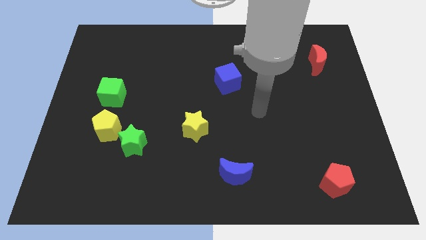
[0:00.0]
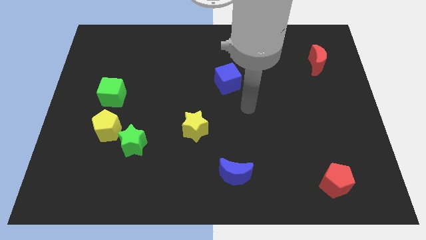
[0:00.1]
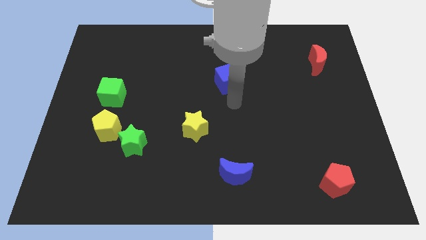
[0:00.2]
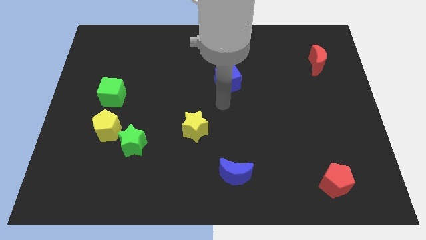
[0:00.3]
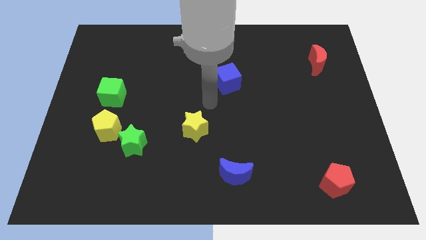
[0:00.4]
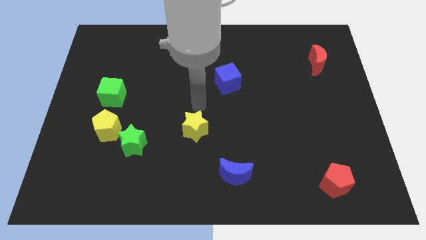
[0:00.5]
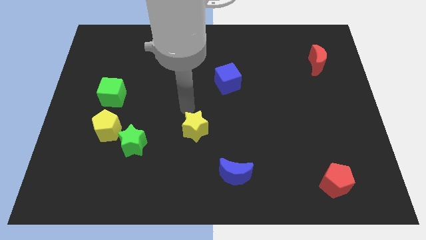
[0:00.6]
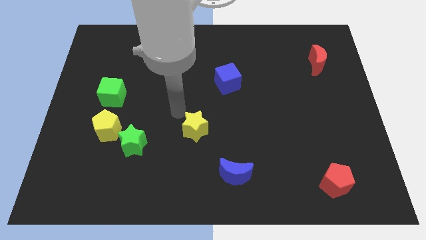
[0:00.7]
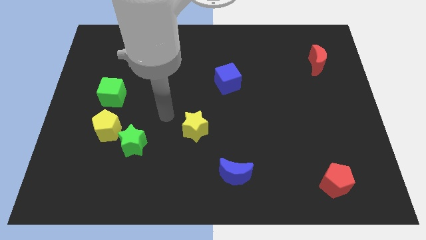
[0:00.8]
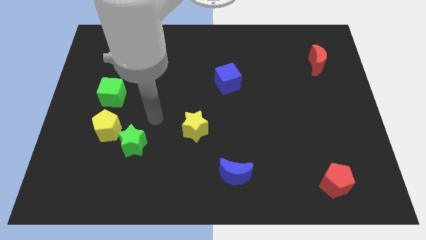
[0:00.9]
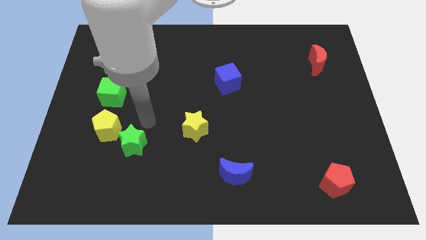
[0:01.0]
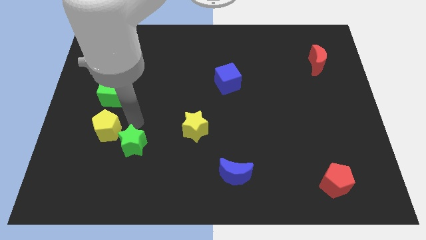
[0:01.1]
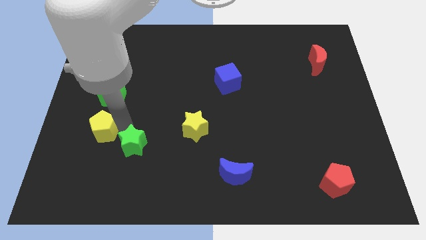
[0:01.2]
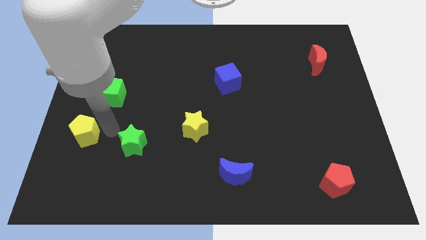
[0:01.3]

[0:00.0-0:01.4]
separate the green star from the yellow pentagon

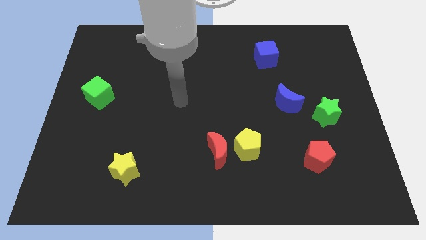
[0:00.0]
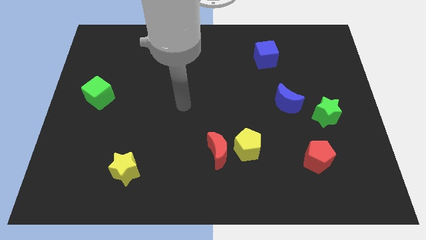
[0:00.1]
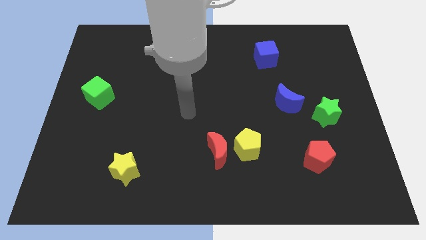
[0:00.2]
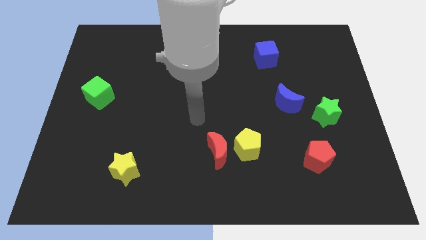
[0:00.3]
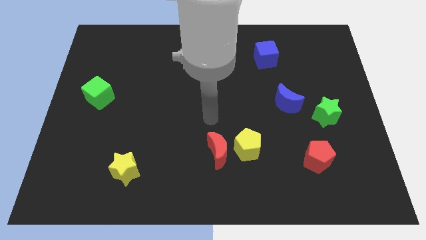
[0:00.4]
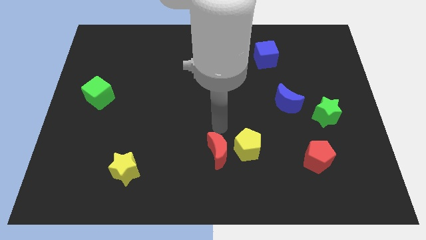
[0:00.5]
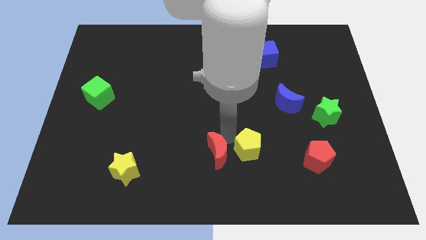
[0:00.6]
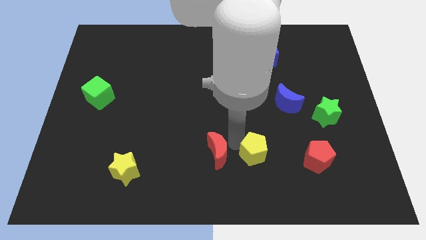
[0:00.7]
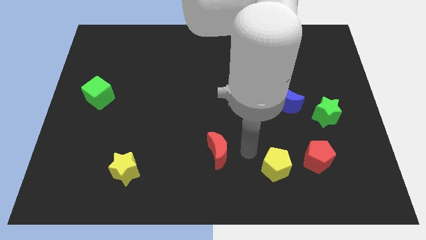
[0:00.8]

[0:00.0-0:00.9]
separate the red moon from the yellow pentagon

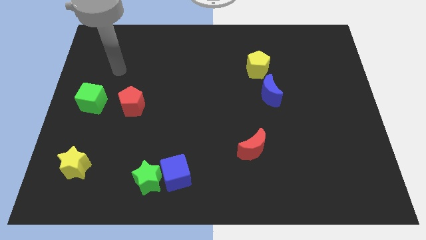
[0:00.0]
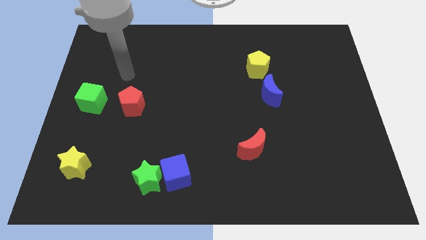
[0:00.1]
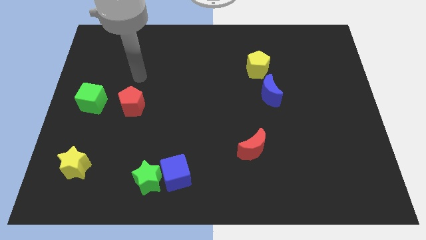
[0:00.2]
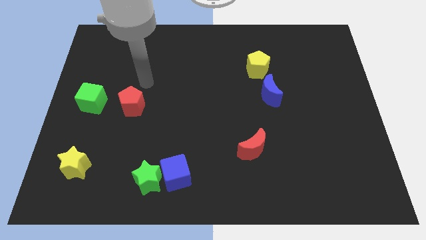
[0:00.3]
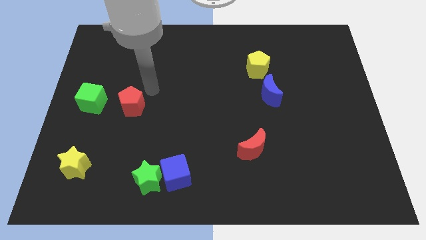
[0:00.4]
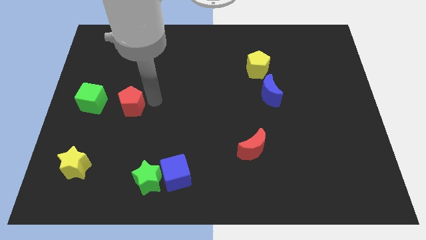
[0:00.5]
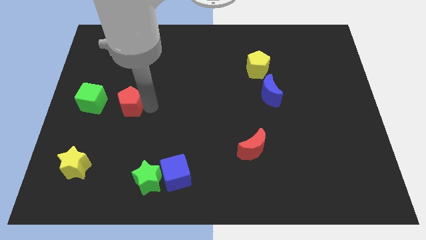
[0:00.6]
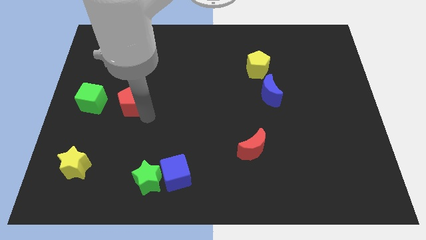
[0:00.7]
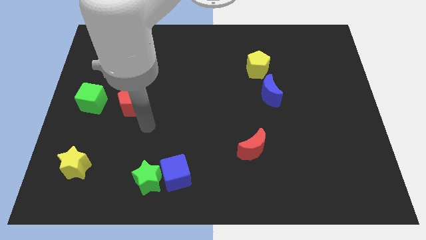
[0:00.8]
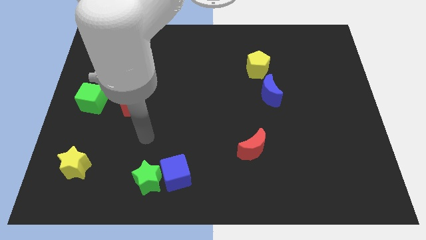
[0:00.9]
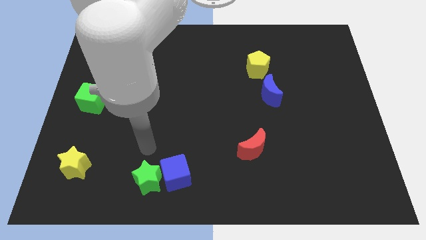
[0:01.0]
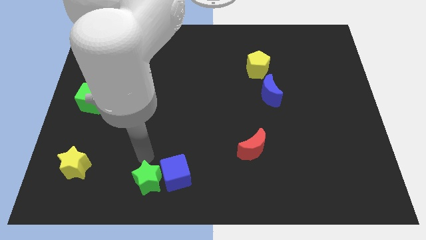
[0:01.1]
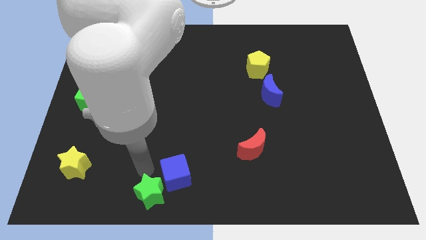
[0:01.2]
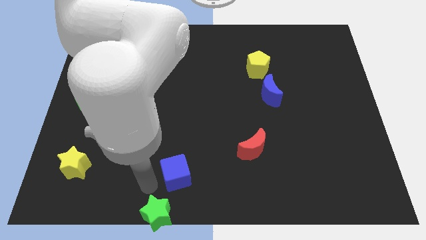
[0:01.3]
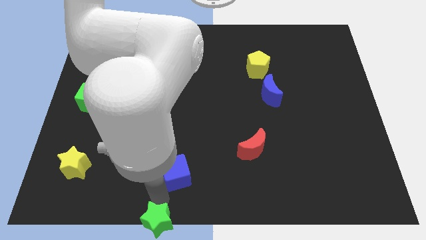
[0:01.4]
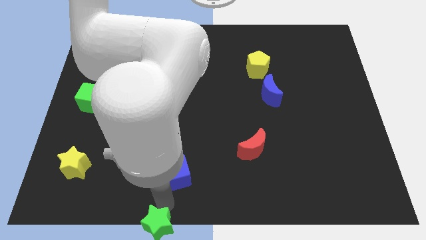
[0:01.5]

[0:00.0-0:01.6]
move the blue cube away from the green star

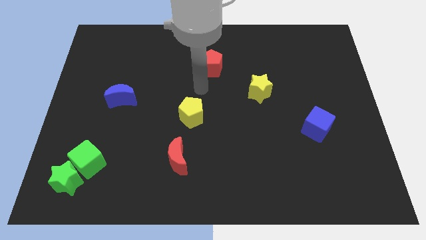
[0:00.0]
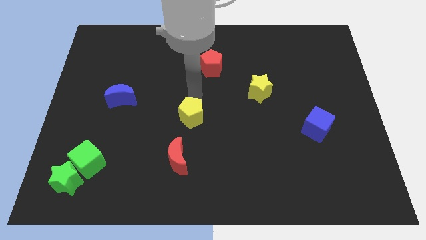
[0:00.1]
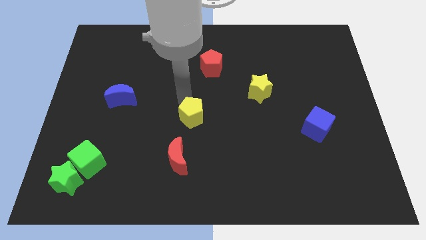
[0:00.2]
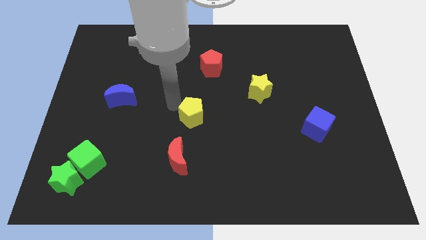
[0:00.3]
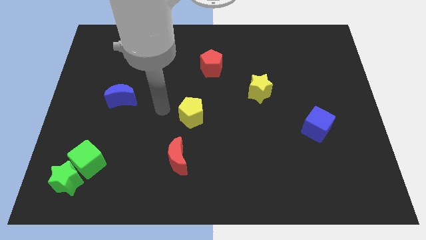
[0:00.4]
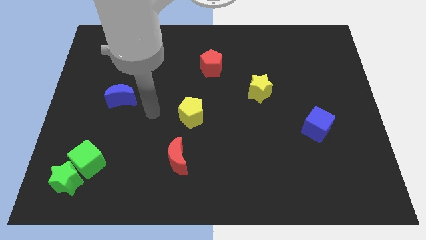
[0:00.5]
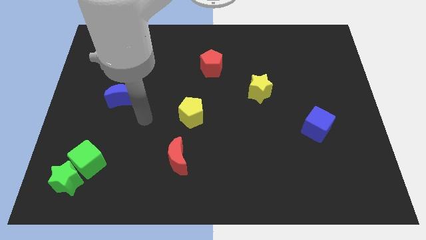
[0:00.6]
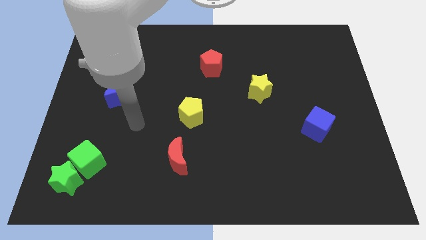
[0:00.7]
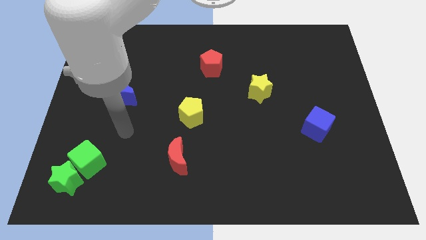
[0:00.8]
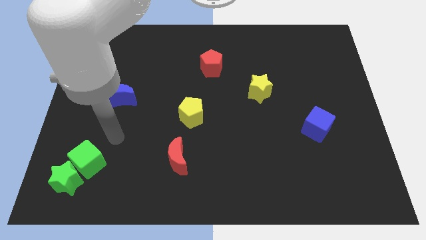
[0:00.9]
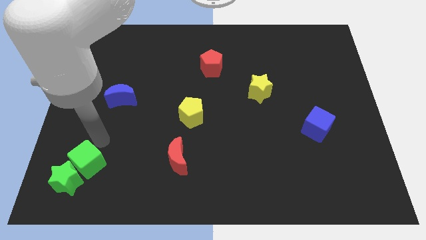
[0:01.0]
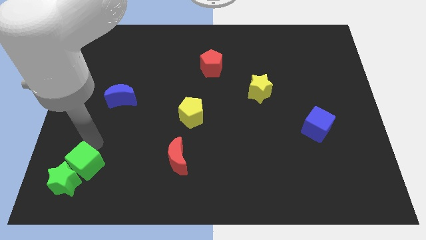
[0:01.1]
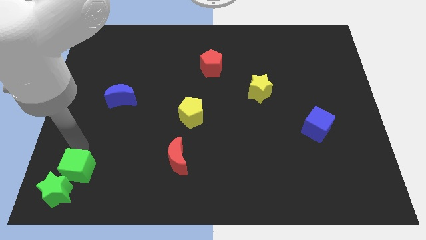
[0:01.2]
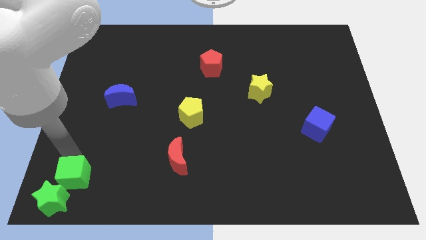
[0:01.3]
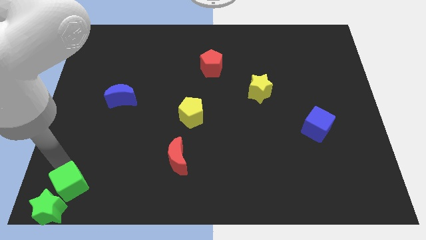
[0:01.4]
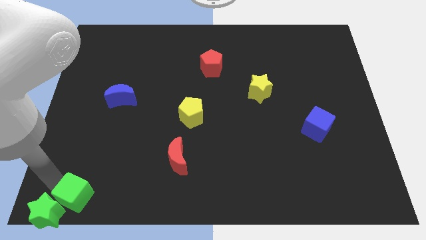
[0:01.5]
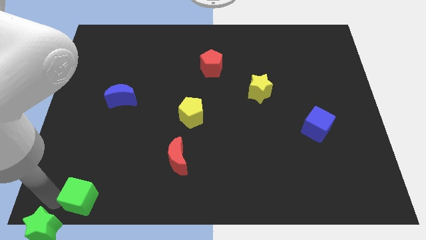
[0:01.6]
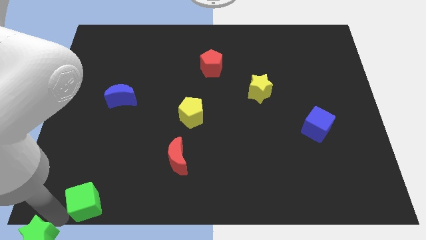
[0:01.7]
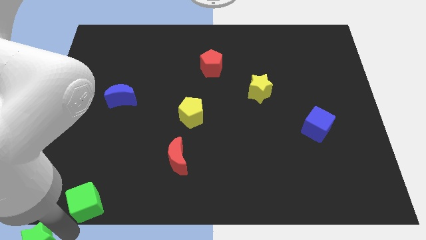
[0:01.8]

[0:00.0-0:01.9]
move the green cube away from the green star

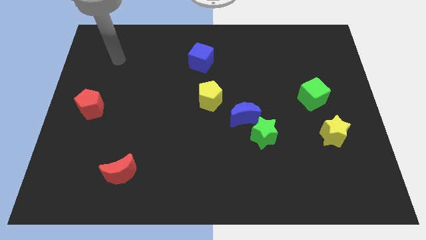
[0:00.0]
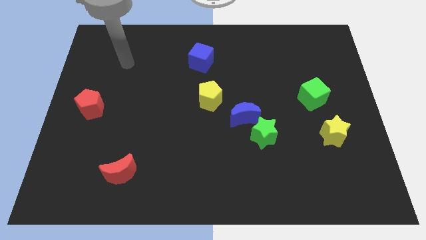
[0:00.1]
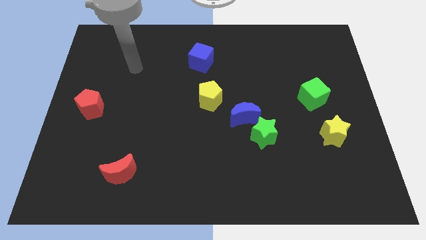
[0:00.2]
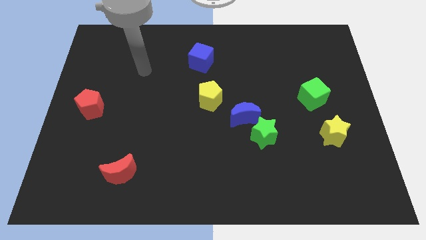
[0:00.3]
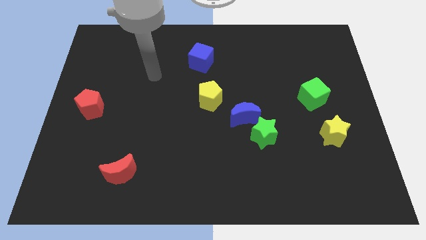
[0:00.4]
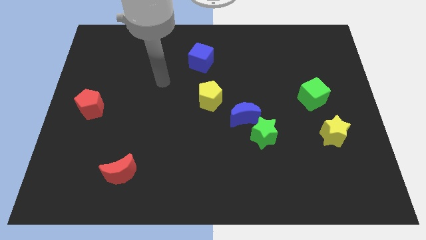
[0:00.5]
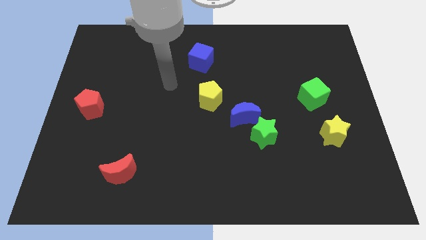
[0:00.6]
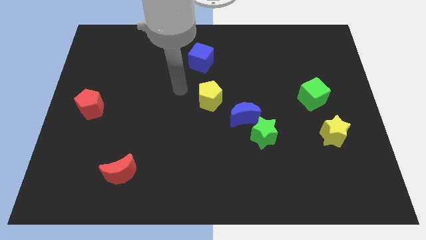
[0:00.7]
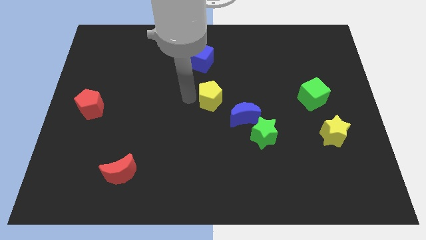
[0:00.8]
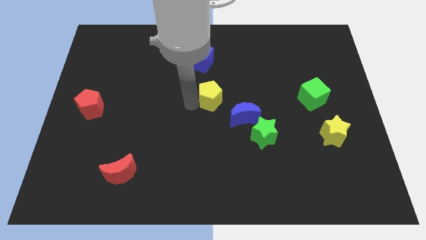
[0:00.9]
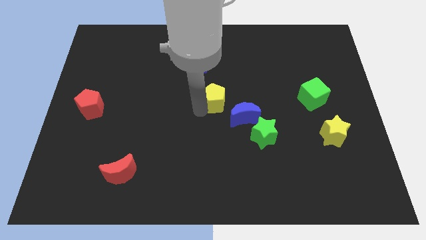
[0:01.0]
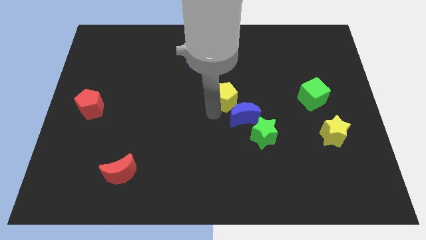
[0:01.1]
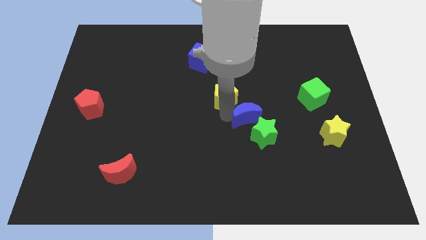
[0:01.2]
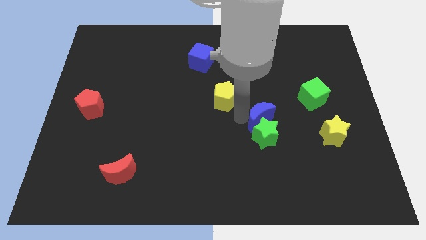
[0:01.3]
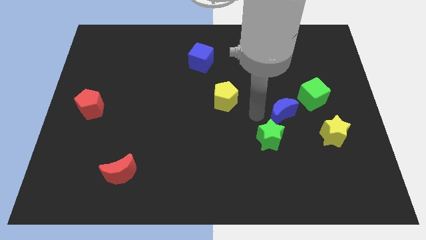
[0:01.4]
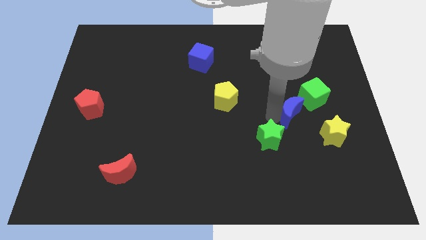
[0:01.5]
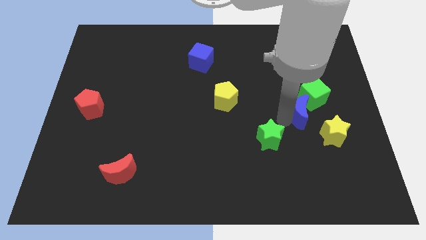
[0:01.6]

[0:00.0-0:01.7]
move the green star away from the blue moon

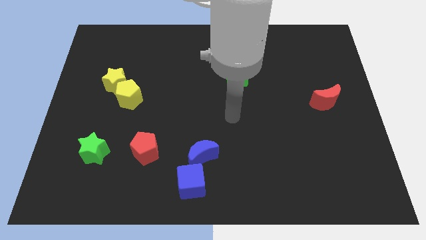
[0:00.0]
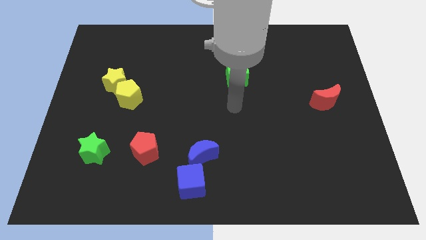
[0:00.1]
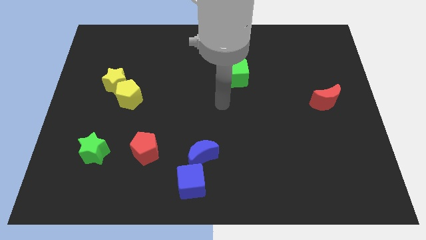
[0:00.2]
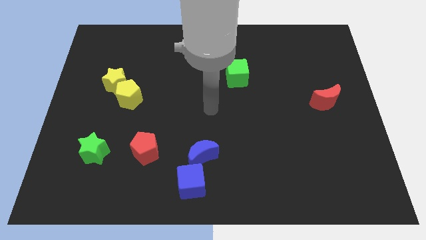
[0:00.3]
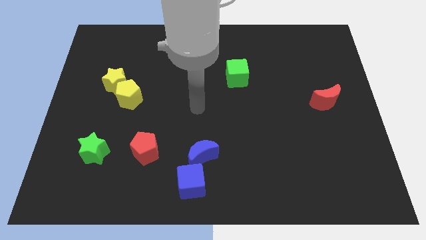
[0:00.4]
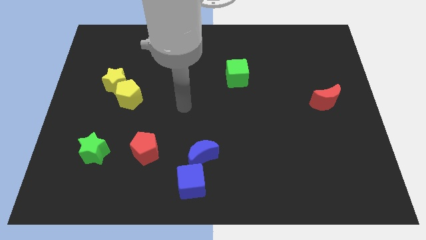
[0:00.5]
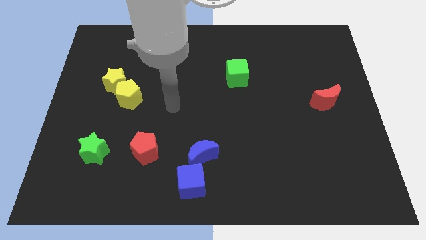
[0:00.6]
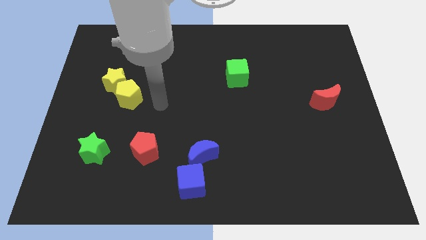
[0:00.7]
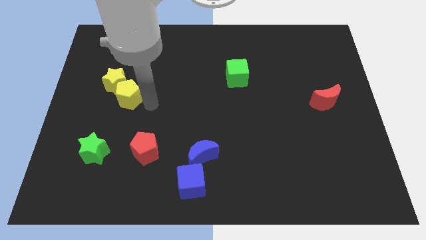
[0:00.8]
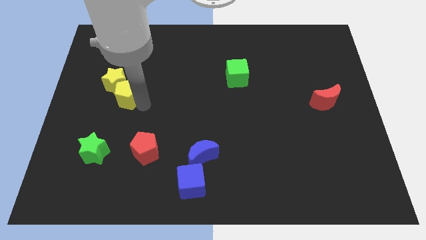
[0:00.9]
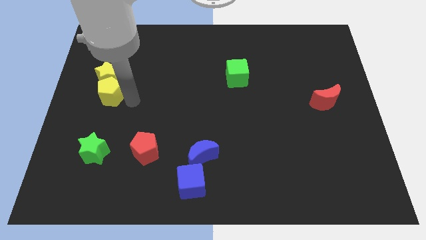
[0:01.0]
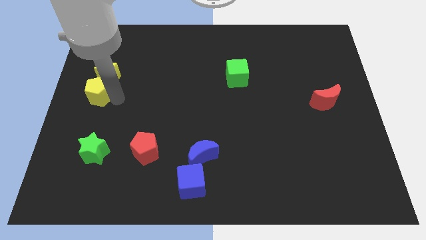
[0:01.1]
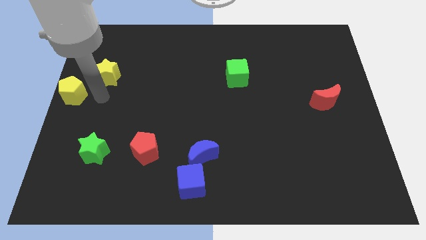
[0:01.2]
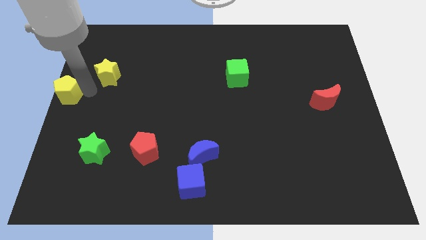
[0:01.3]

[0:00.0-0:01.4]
separate the yellow star from the yellow pentagon

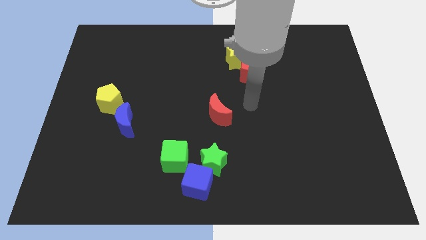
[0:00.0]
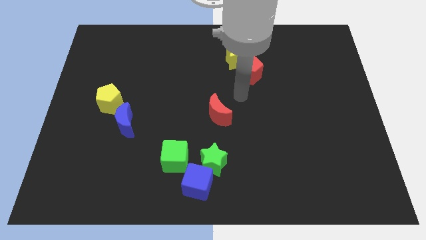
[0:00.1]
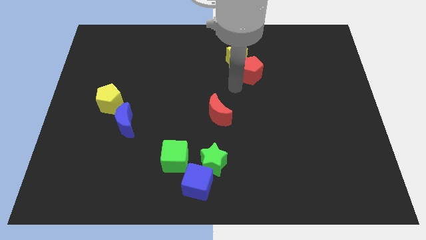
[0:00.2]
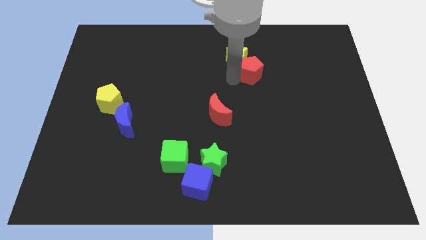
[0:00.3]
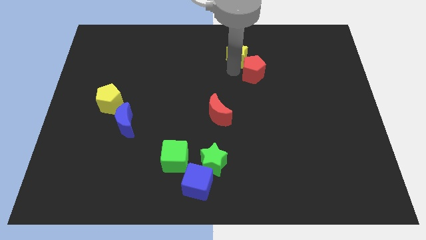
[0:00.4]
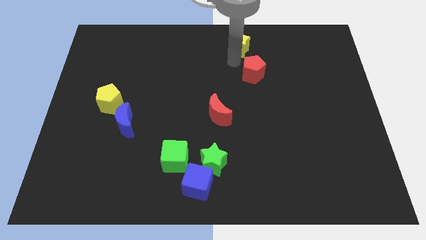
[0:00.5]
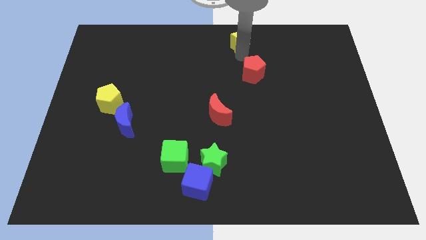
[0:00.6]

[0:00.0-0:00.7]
separate the red pentagon from the yellow star
